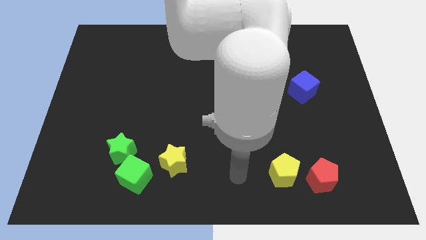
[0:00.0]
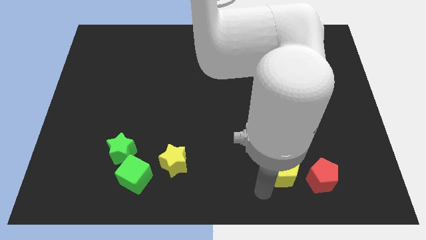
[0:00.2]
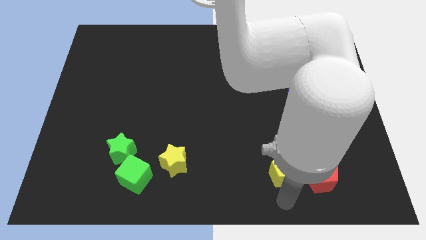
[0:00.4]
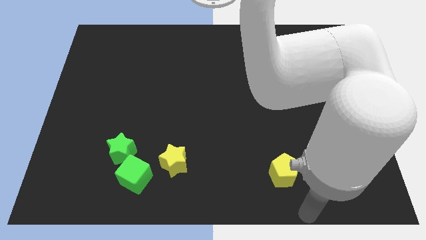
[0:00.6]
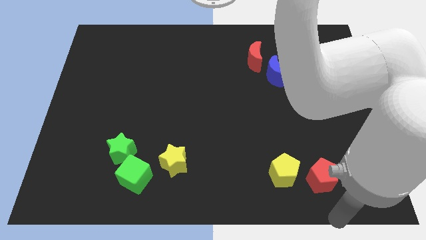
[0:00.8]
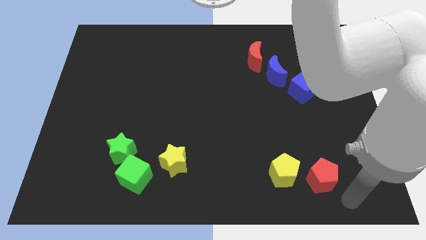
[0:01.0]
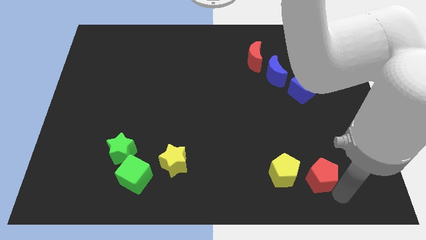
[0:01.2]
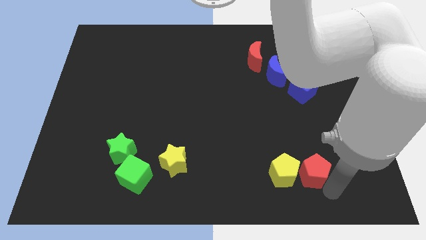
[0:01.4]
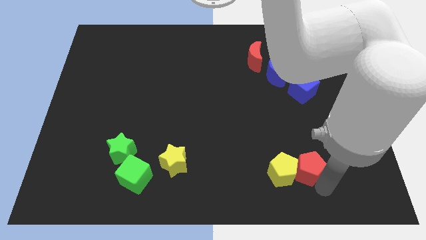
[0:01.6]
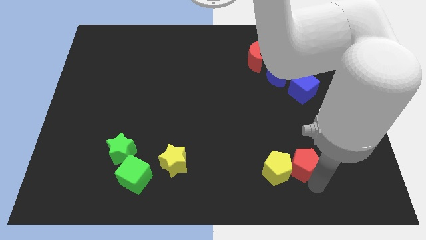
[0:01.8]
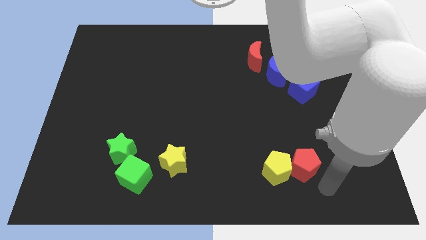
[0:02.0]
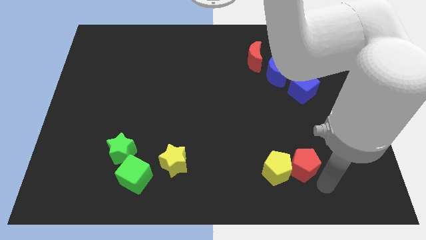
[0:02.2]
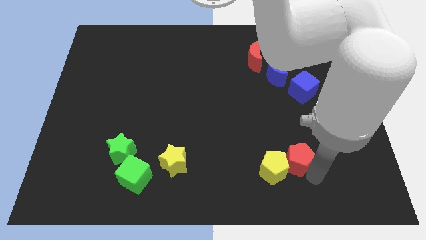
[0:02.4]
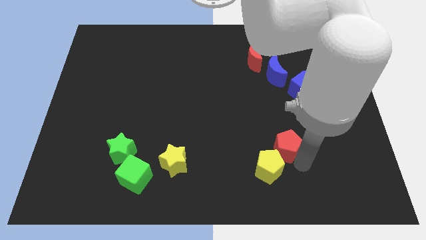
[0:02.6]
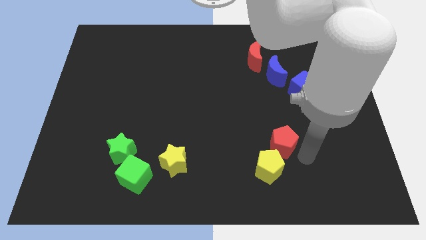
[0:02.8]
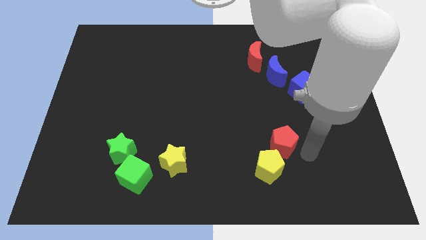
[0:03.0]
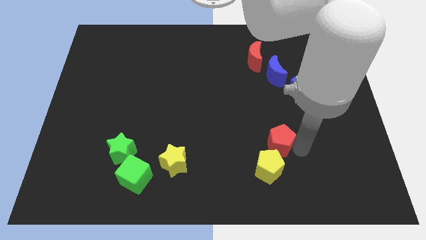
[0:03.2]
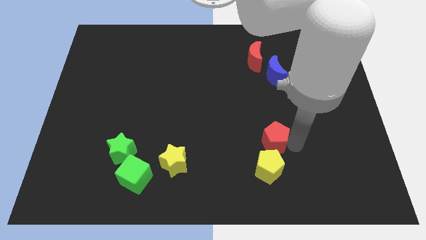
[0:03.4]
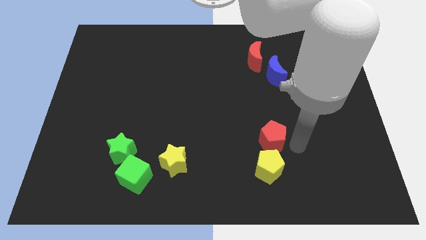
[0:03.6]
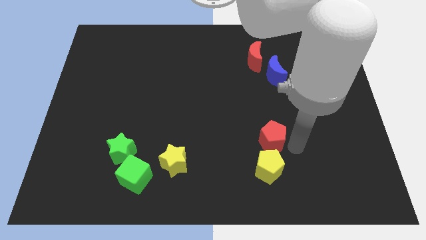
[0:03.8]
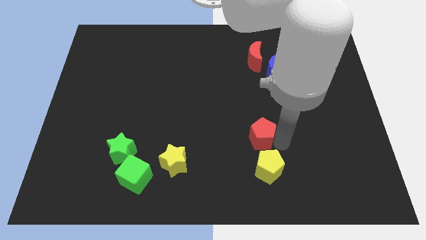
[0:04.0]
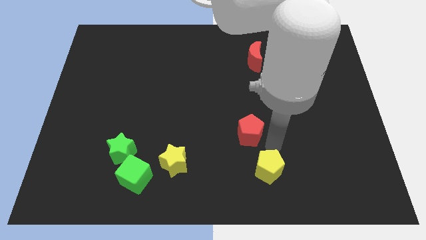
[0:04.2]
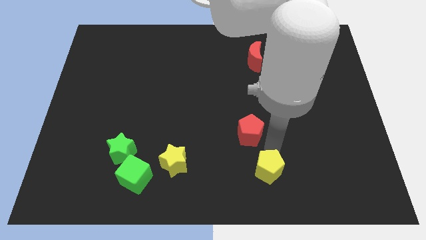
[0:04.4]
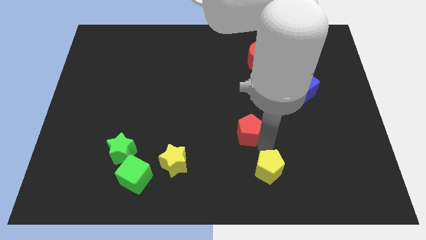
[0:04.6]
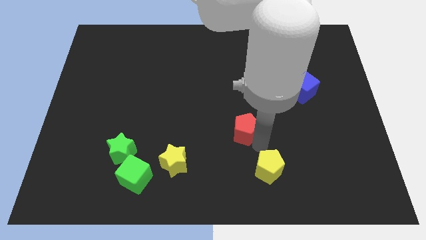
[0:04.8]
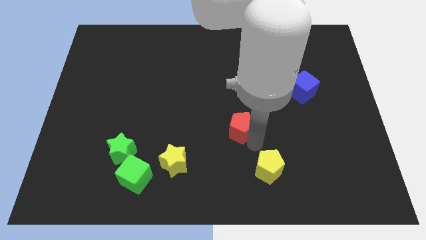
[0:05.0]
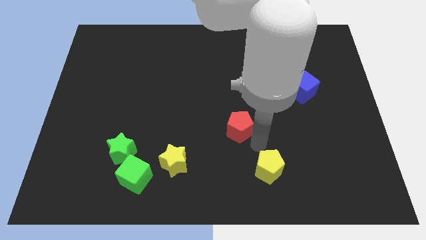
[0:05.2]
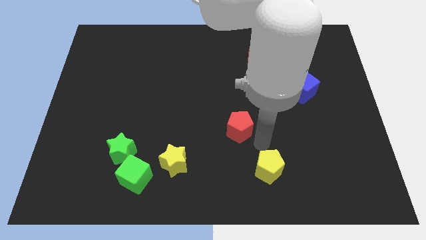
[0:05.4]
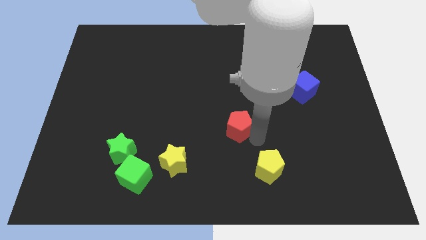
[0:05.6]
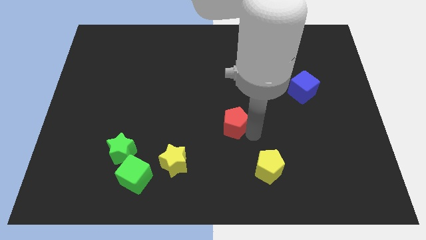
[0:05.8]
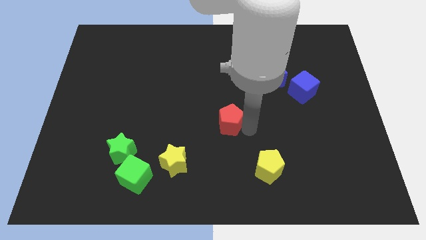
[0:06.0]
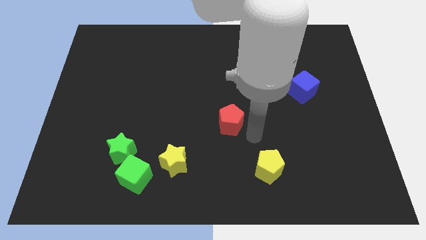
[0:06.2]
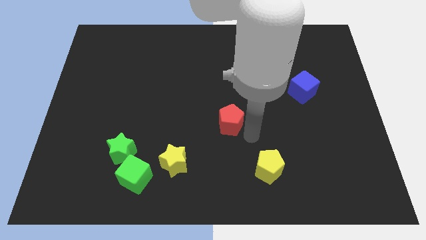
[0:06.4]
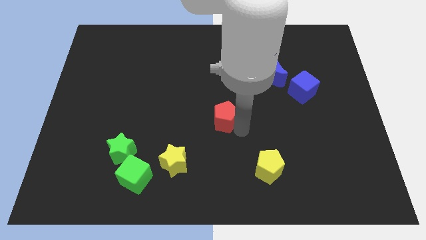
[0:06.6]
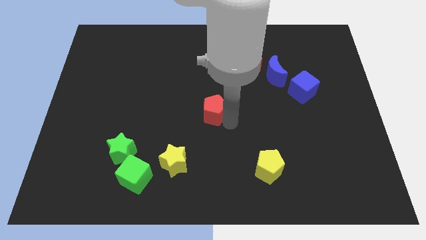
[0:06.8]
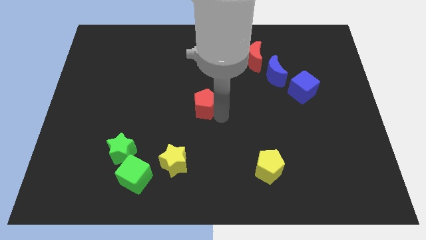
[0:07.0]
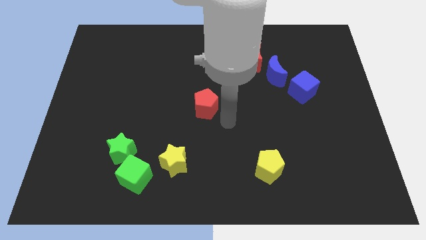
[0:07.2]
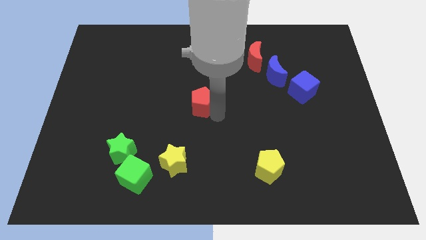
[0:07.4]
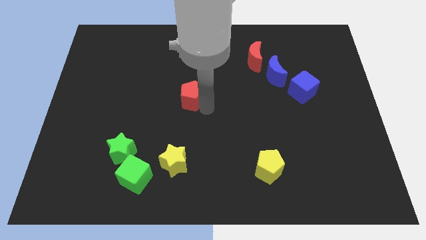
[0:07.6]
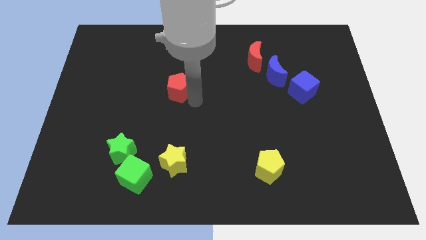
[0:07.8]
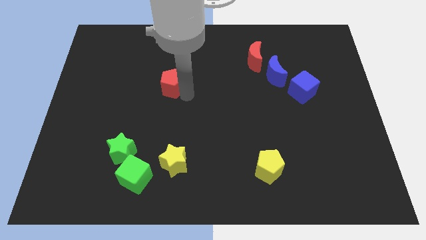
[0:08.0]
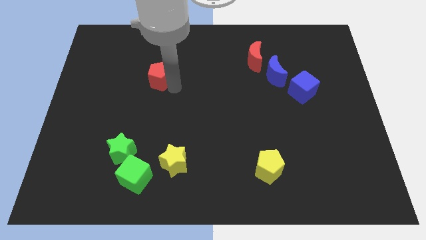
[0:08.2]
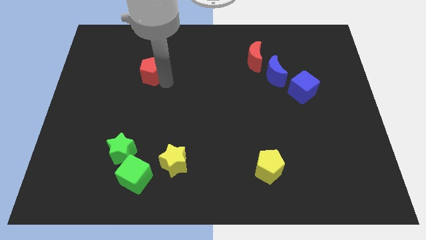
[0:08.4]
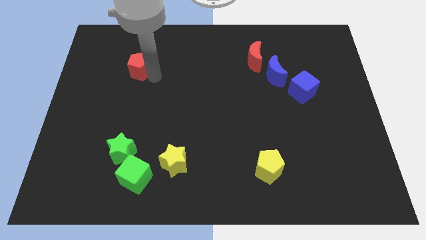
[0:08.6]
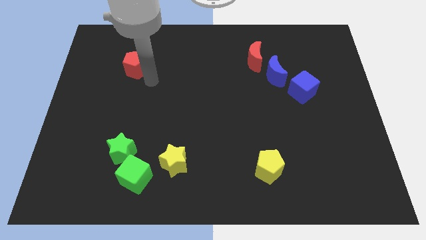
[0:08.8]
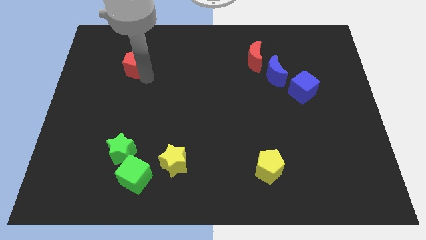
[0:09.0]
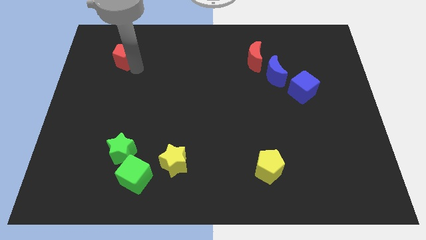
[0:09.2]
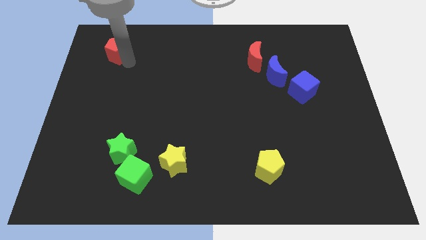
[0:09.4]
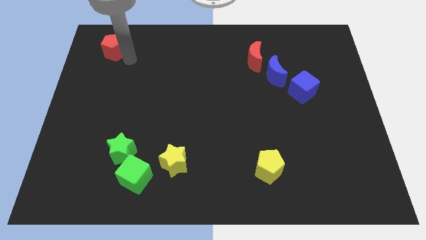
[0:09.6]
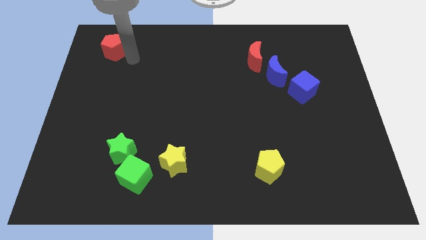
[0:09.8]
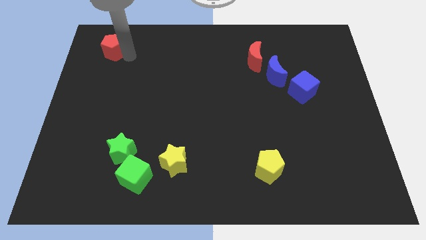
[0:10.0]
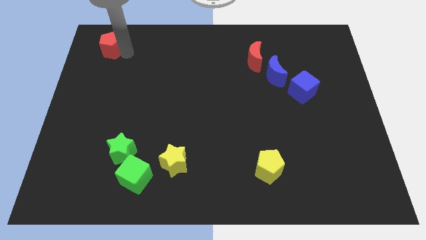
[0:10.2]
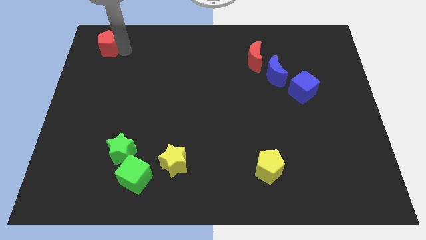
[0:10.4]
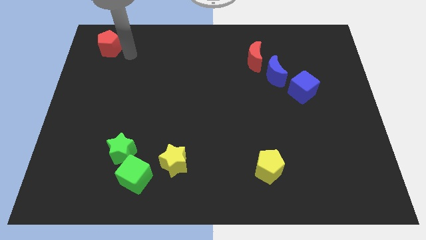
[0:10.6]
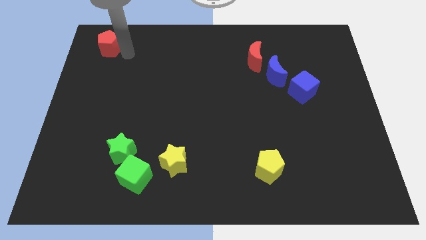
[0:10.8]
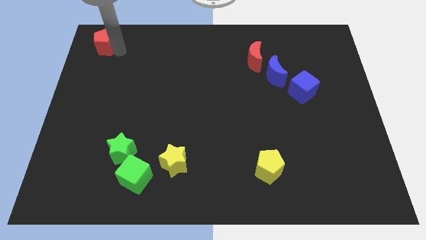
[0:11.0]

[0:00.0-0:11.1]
put the red pentagon to the top left

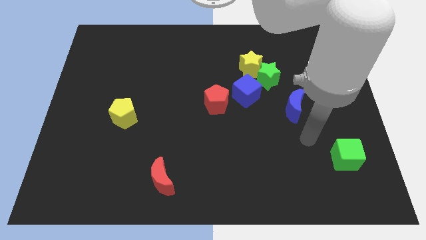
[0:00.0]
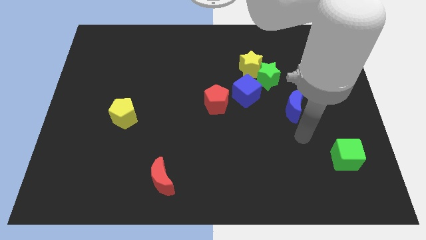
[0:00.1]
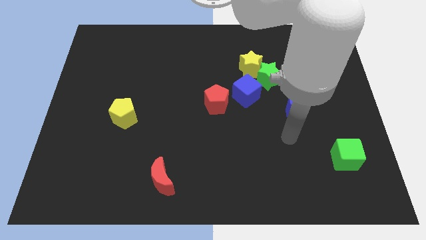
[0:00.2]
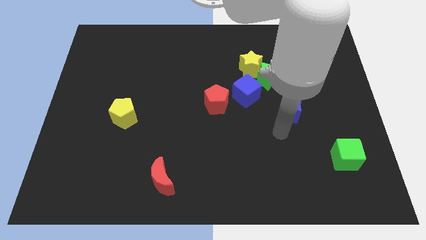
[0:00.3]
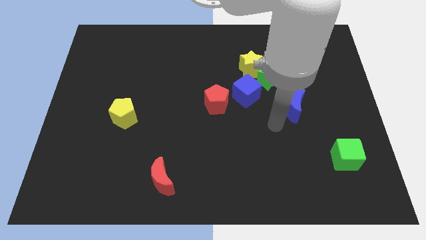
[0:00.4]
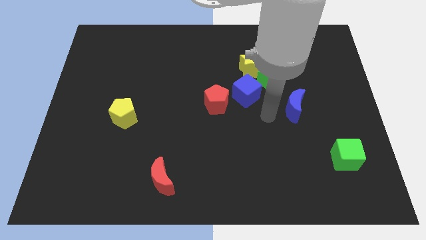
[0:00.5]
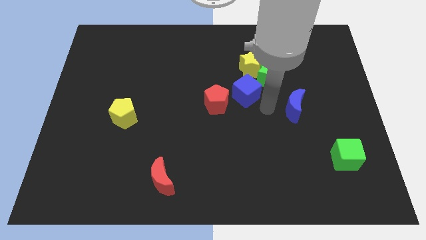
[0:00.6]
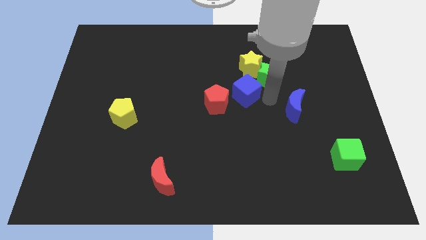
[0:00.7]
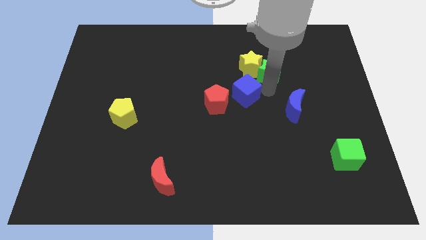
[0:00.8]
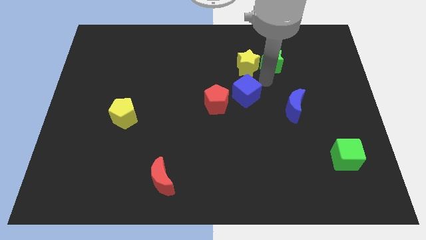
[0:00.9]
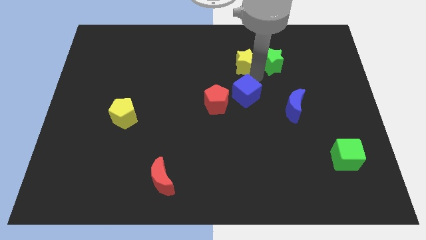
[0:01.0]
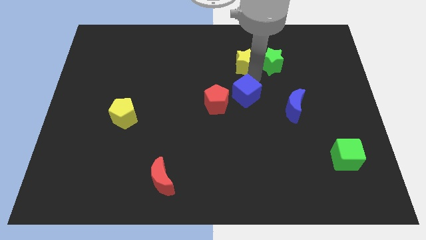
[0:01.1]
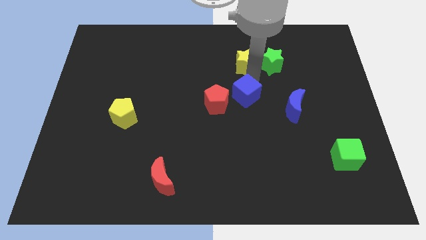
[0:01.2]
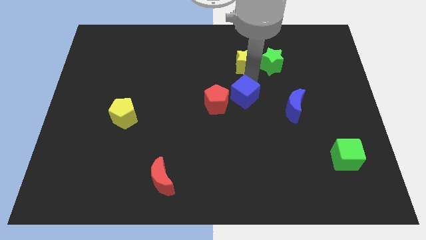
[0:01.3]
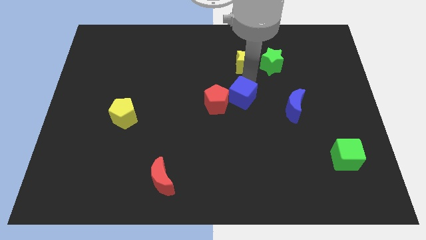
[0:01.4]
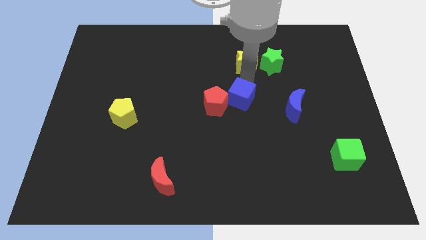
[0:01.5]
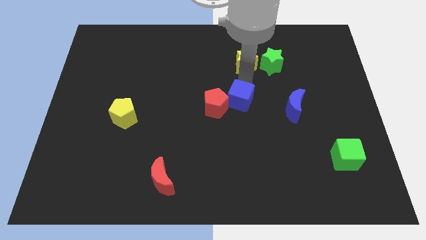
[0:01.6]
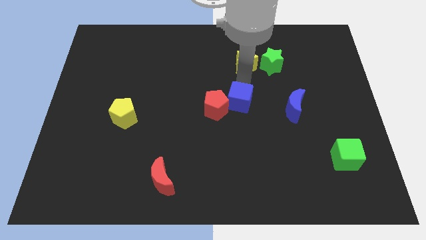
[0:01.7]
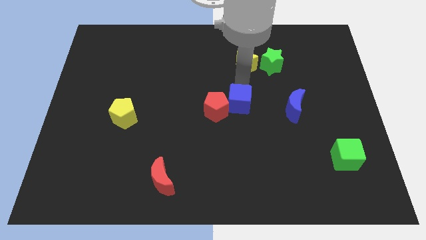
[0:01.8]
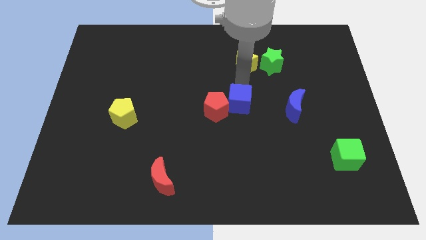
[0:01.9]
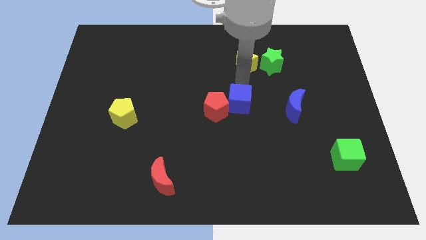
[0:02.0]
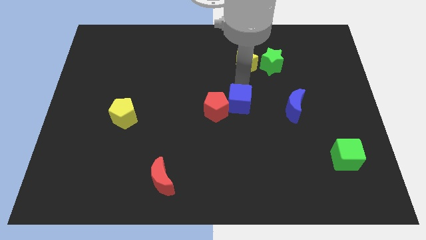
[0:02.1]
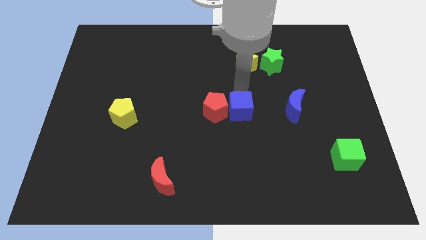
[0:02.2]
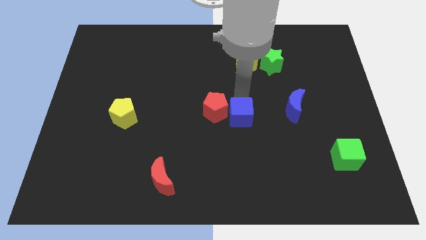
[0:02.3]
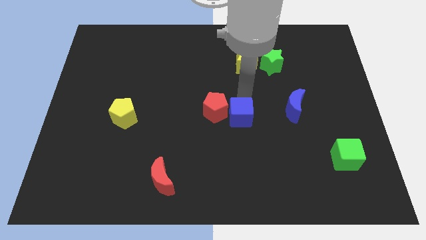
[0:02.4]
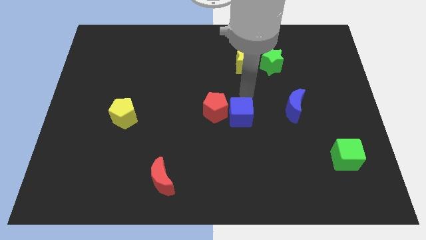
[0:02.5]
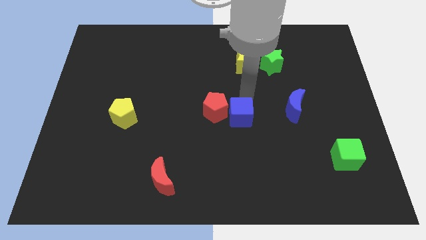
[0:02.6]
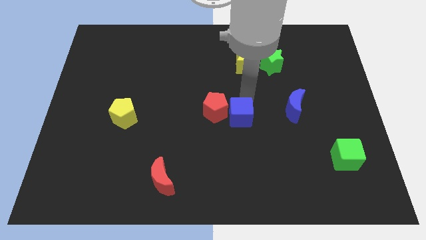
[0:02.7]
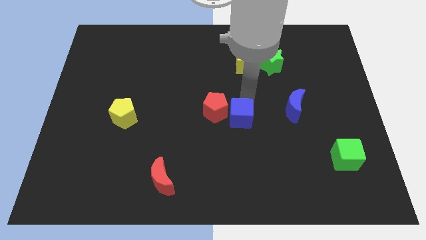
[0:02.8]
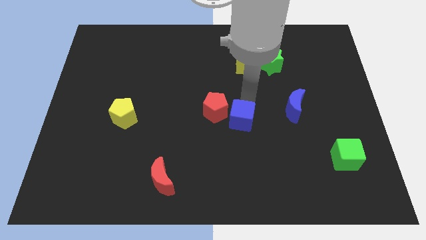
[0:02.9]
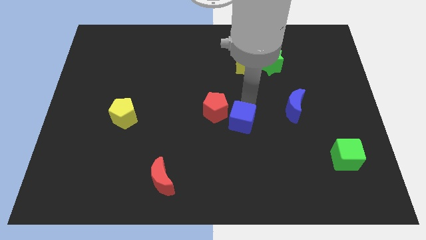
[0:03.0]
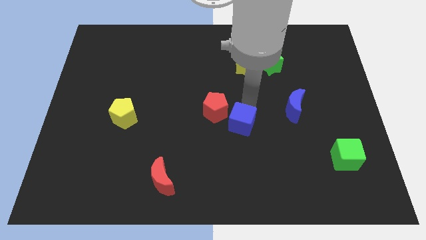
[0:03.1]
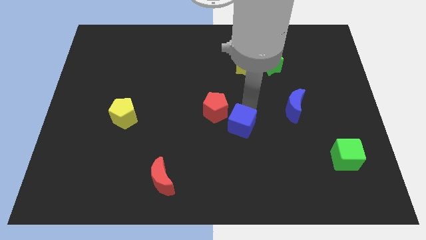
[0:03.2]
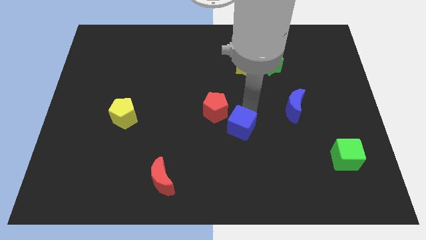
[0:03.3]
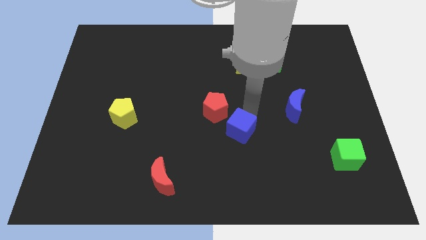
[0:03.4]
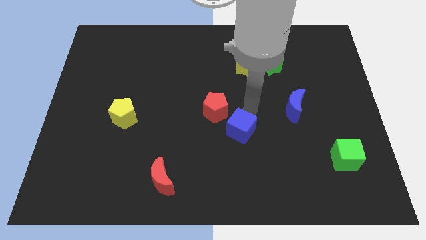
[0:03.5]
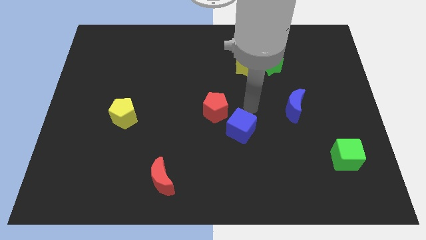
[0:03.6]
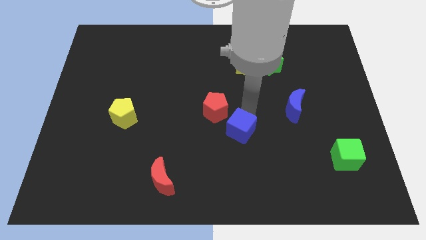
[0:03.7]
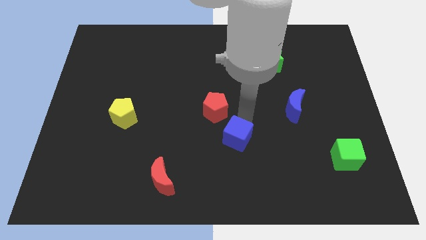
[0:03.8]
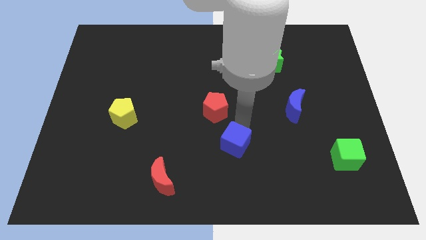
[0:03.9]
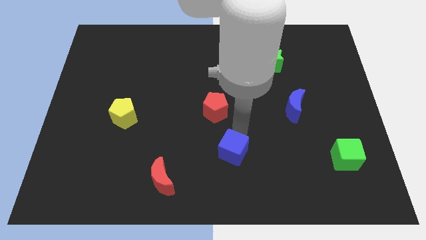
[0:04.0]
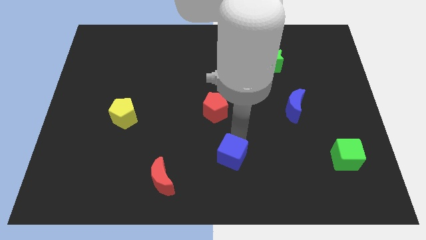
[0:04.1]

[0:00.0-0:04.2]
move the blue cube to the bottom
